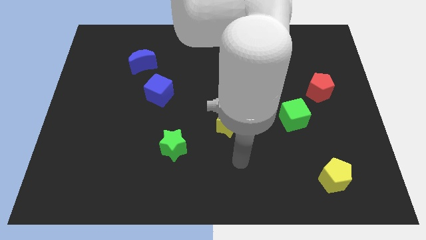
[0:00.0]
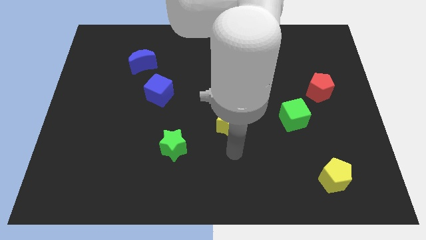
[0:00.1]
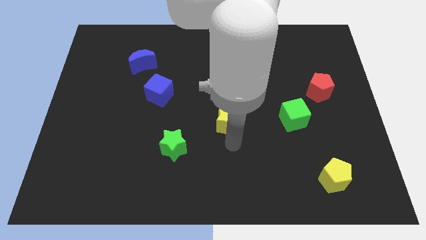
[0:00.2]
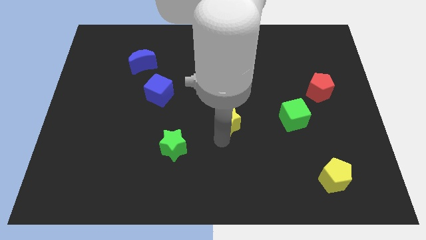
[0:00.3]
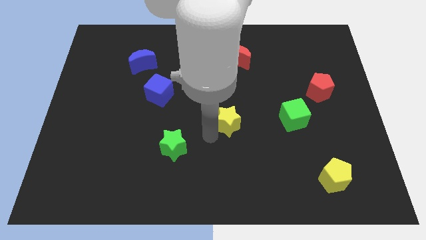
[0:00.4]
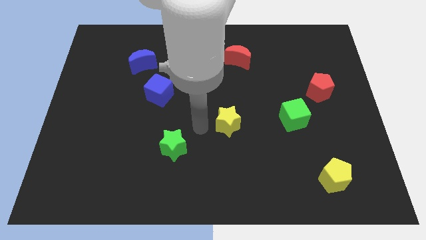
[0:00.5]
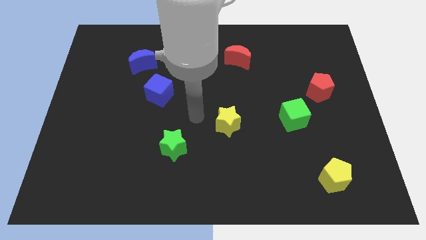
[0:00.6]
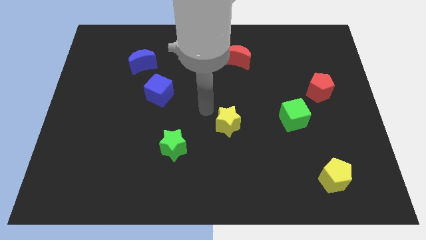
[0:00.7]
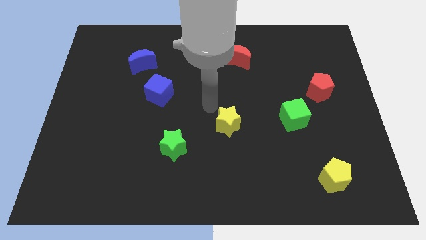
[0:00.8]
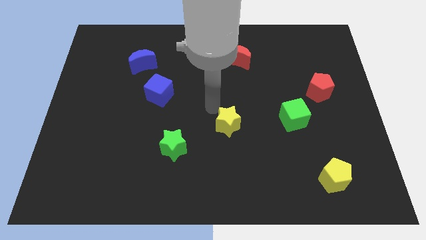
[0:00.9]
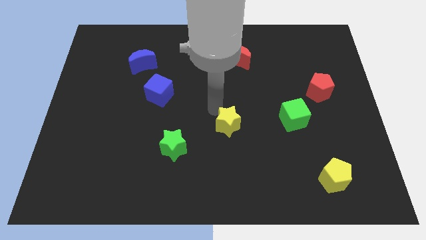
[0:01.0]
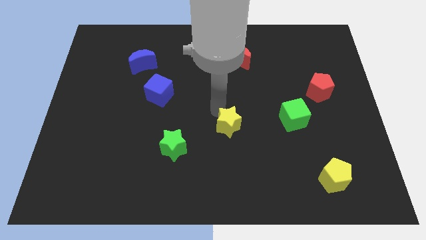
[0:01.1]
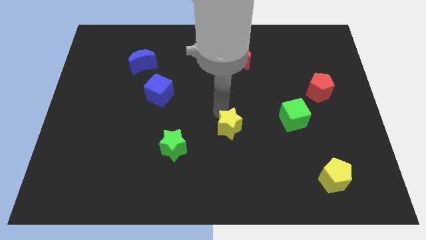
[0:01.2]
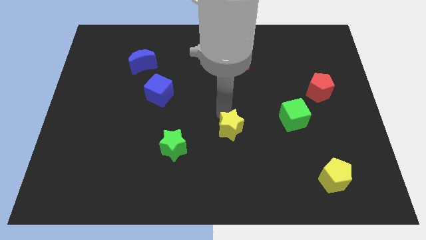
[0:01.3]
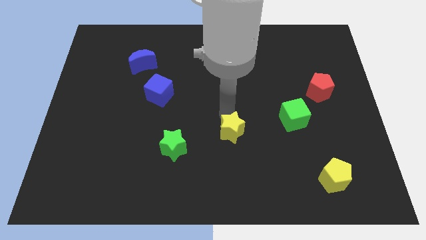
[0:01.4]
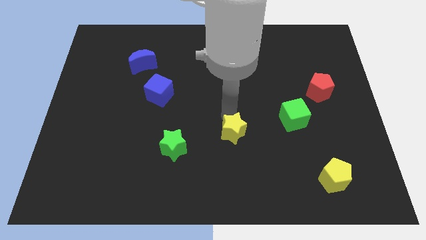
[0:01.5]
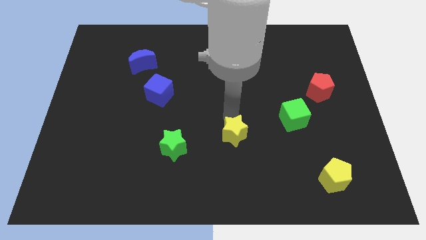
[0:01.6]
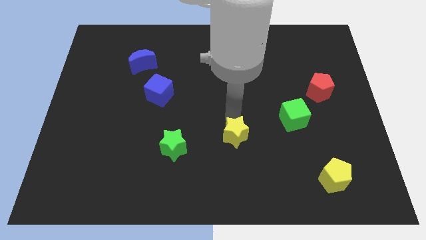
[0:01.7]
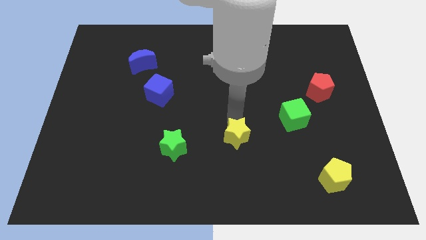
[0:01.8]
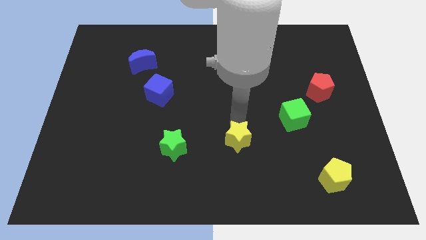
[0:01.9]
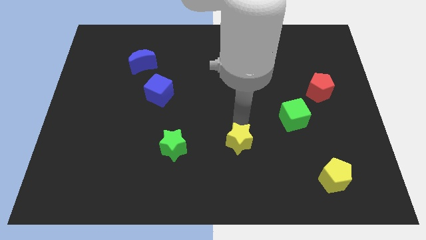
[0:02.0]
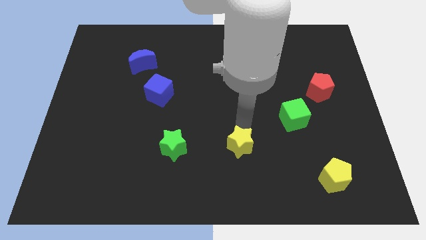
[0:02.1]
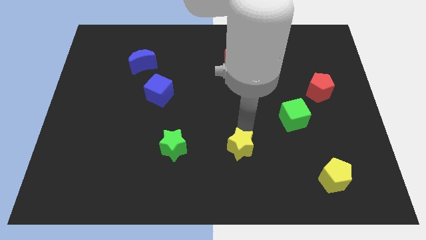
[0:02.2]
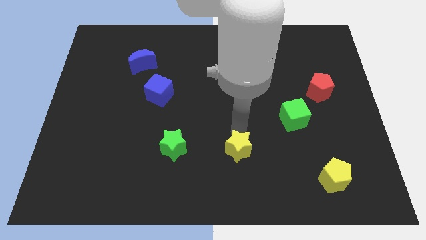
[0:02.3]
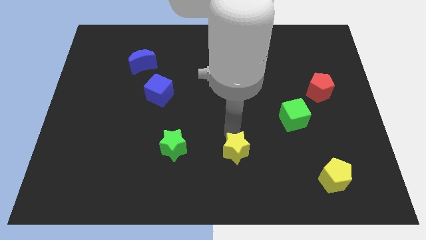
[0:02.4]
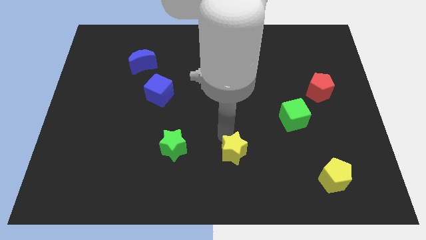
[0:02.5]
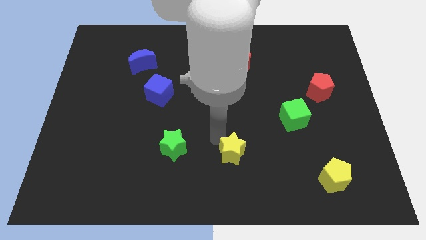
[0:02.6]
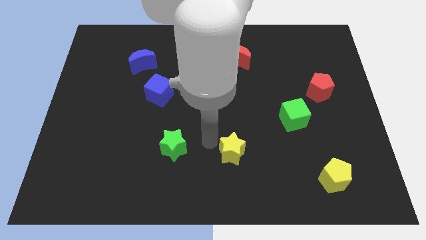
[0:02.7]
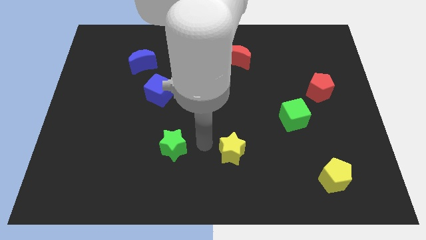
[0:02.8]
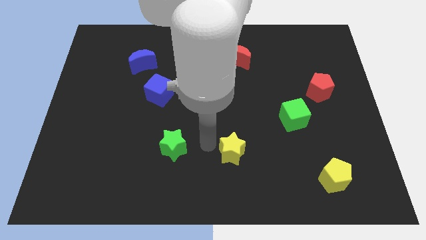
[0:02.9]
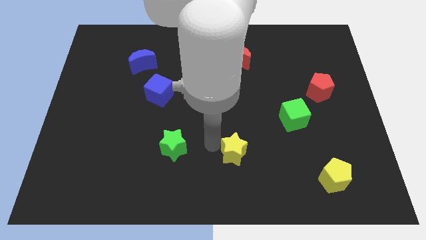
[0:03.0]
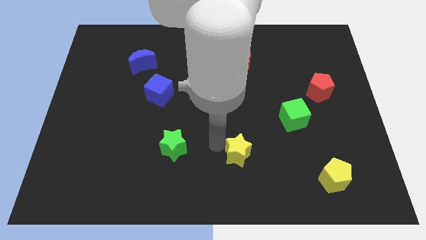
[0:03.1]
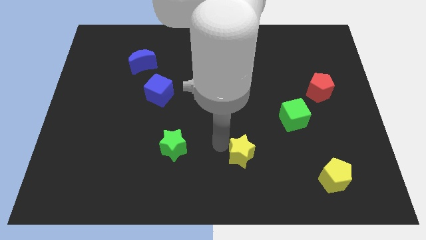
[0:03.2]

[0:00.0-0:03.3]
slightly push the yellow star downwards and right

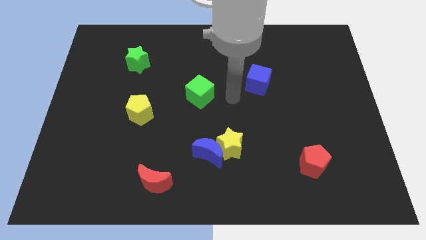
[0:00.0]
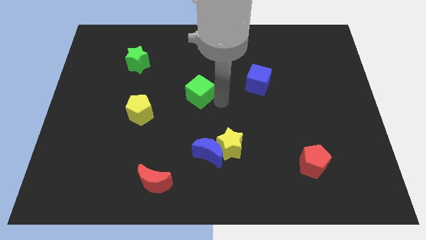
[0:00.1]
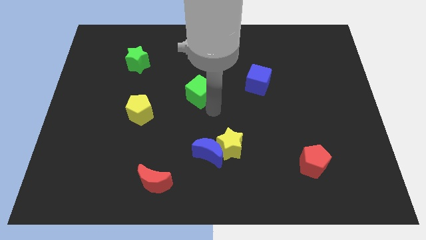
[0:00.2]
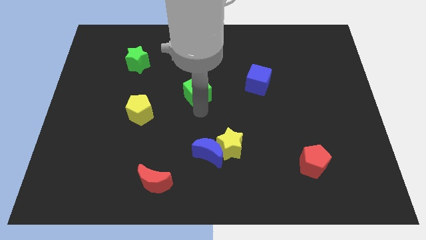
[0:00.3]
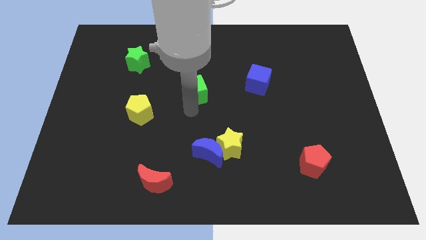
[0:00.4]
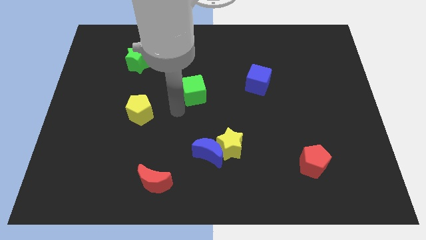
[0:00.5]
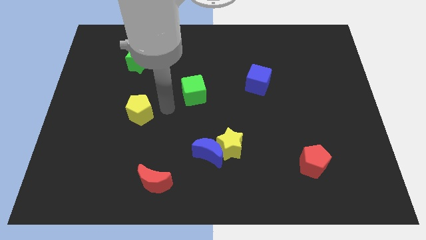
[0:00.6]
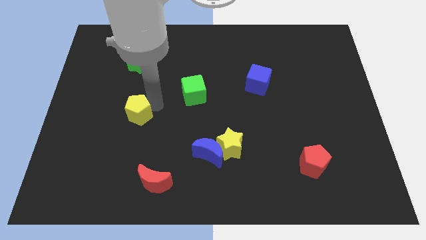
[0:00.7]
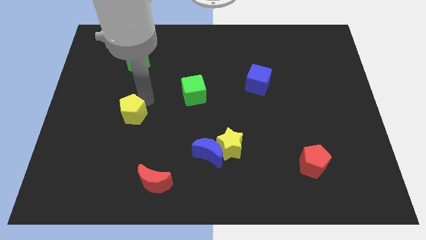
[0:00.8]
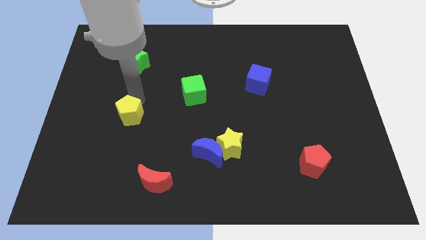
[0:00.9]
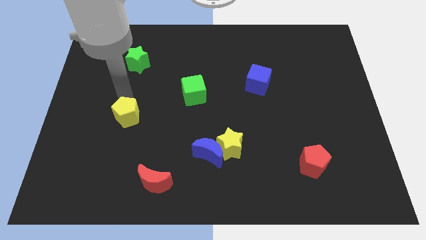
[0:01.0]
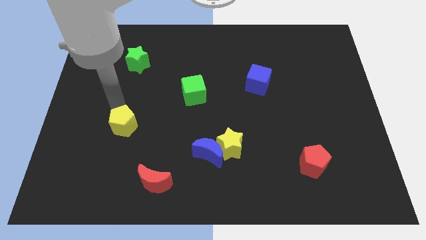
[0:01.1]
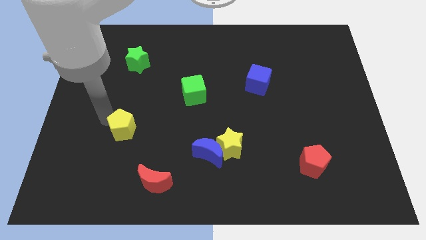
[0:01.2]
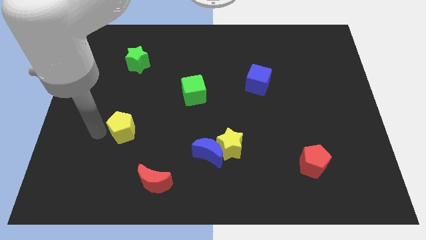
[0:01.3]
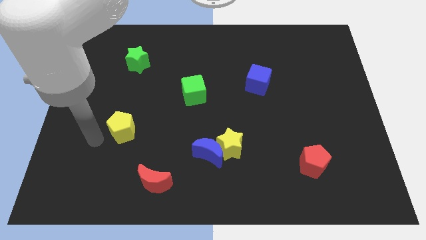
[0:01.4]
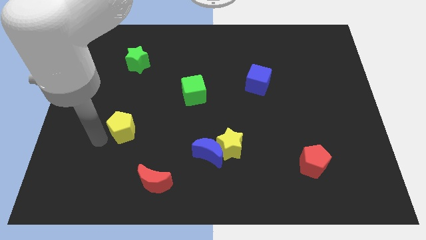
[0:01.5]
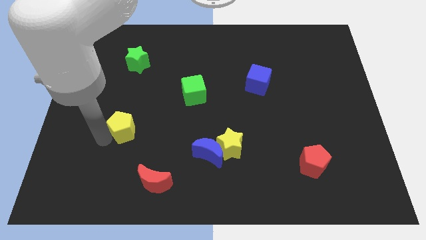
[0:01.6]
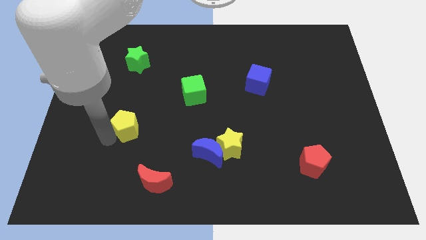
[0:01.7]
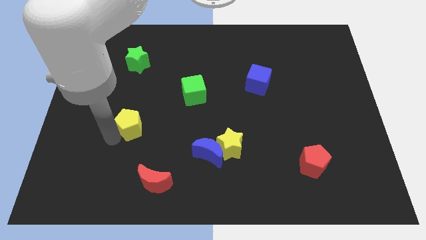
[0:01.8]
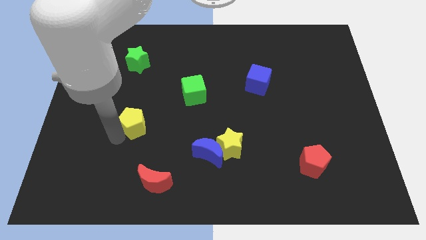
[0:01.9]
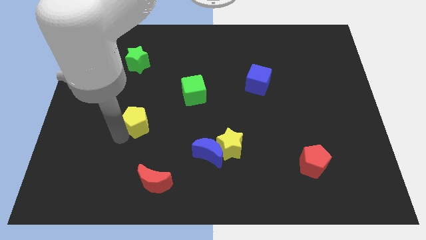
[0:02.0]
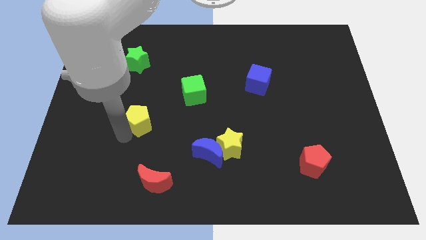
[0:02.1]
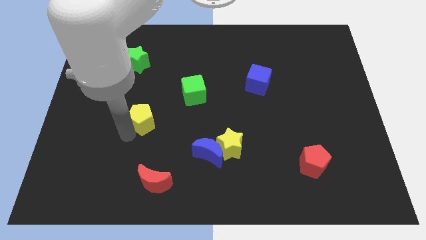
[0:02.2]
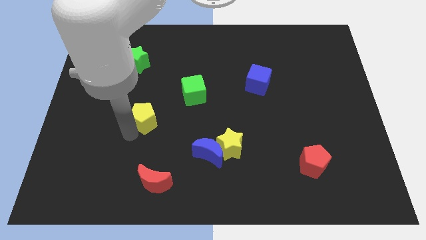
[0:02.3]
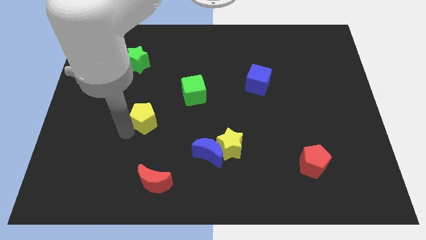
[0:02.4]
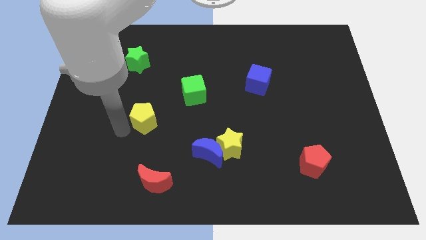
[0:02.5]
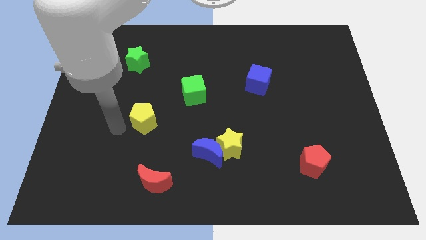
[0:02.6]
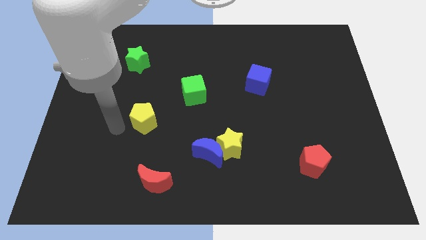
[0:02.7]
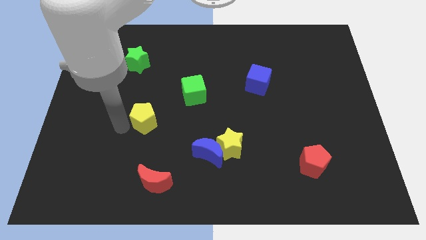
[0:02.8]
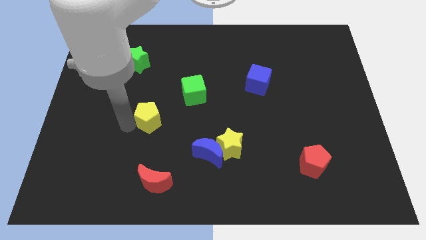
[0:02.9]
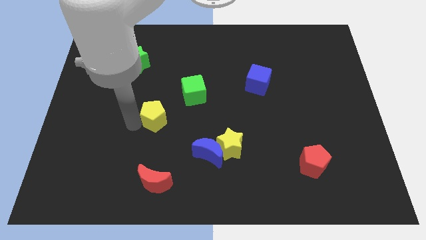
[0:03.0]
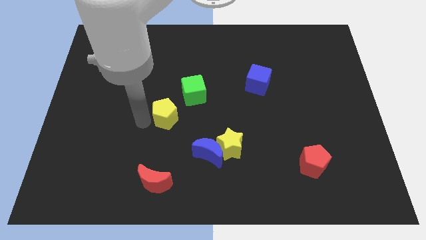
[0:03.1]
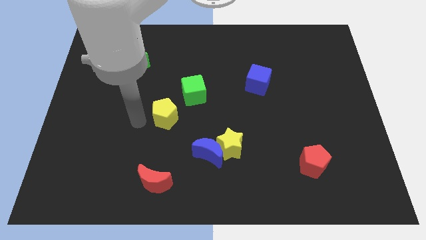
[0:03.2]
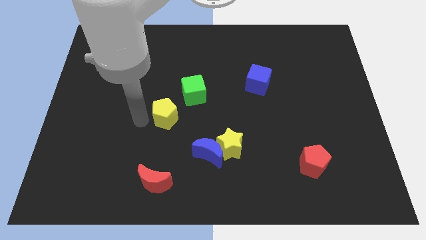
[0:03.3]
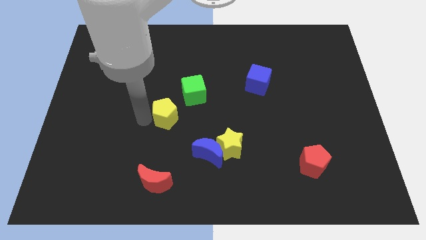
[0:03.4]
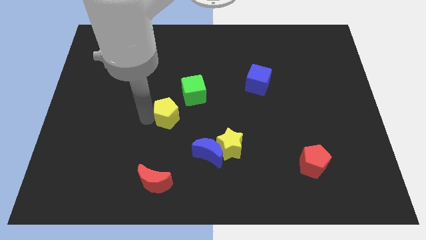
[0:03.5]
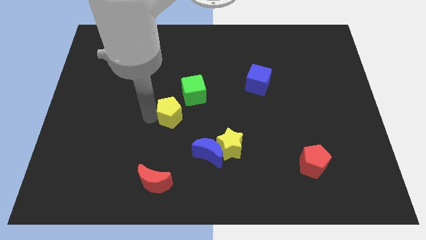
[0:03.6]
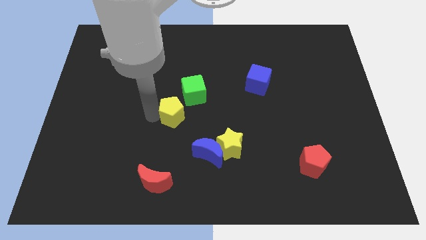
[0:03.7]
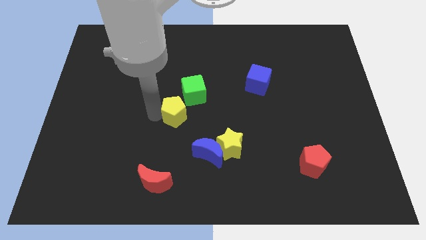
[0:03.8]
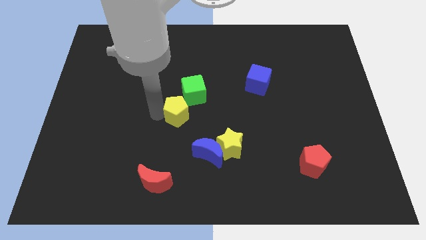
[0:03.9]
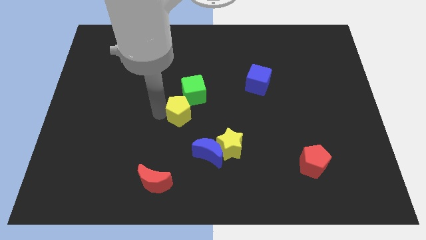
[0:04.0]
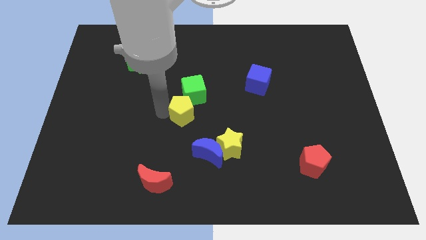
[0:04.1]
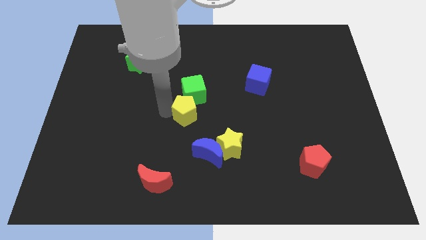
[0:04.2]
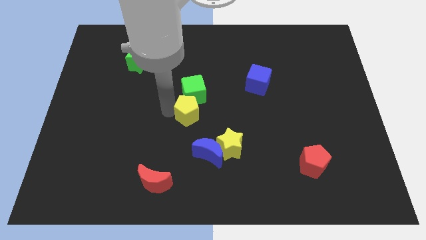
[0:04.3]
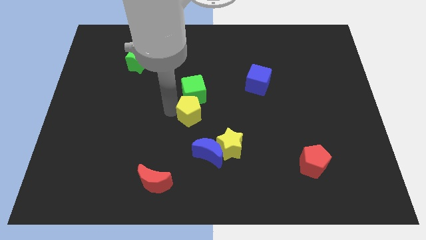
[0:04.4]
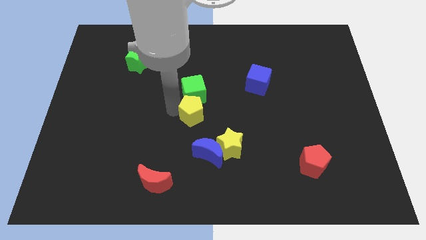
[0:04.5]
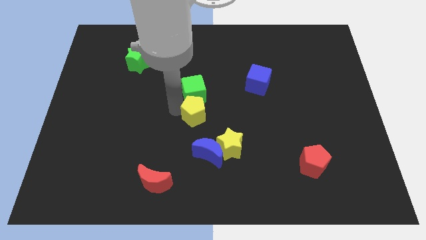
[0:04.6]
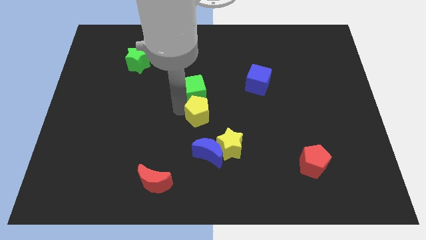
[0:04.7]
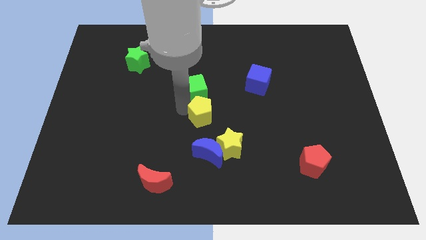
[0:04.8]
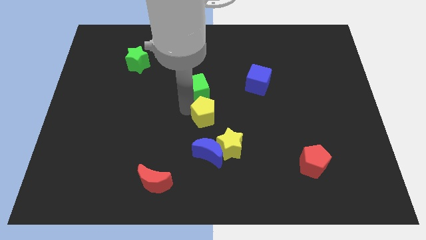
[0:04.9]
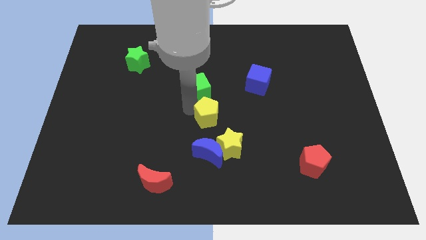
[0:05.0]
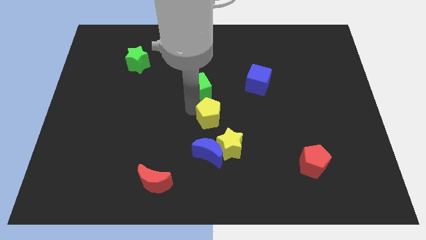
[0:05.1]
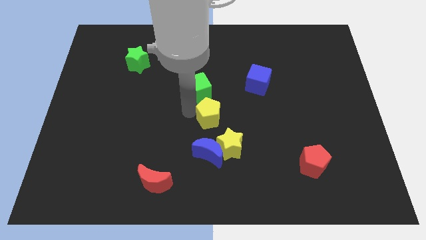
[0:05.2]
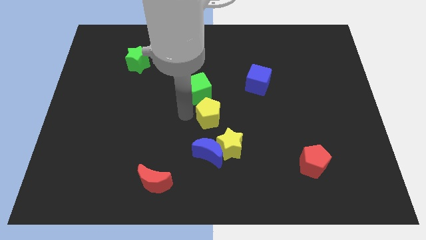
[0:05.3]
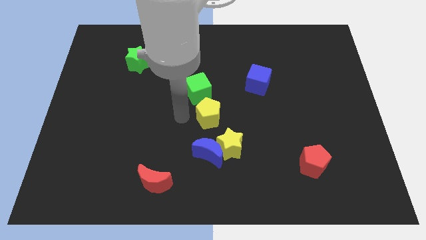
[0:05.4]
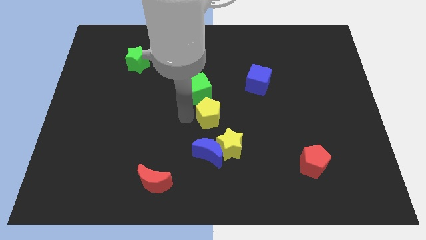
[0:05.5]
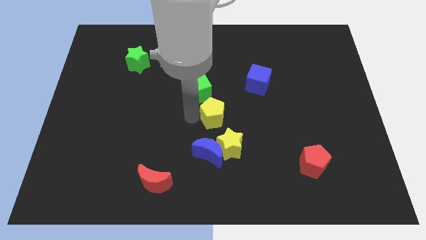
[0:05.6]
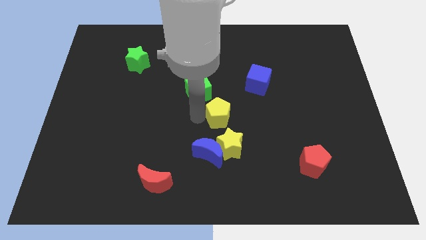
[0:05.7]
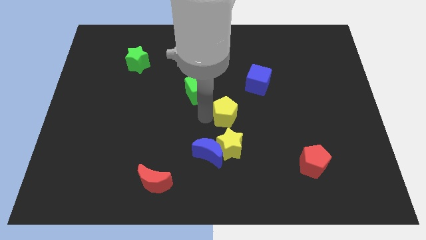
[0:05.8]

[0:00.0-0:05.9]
slide the yellow pentagon to the right
